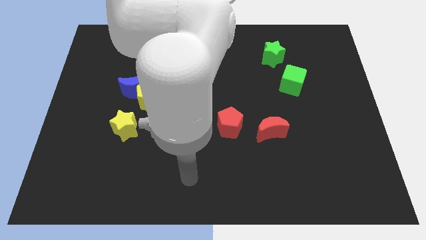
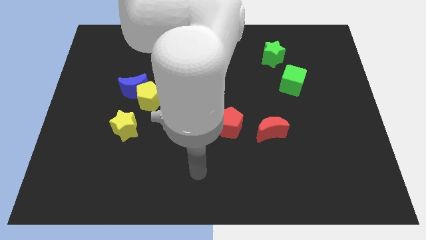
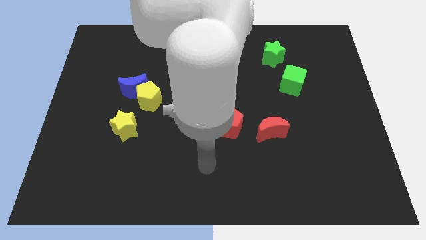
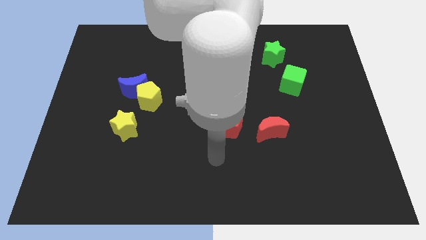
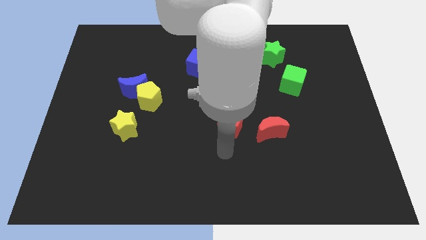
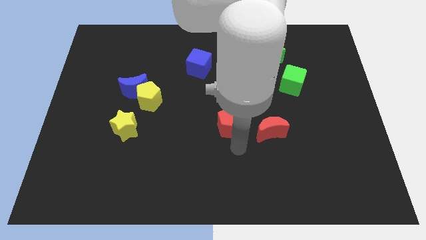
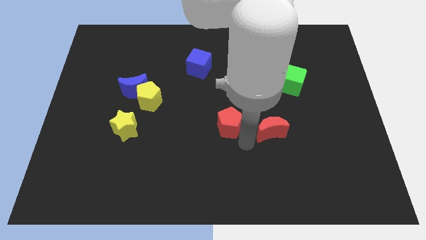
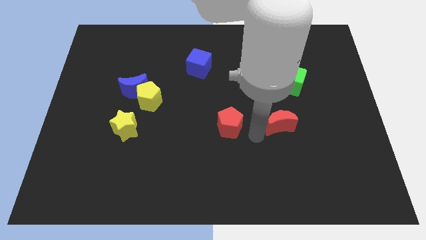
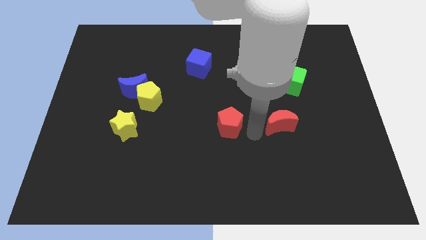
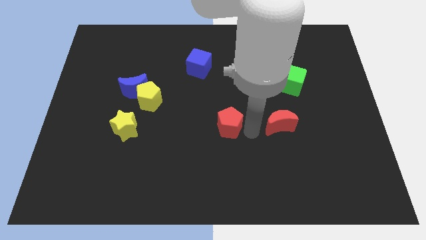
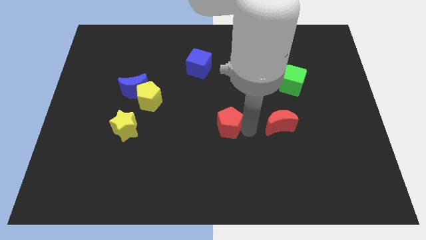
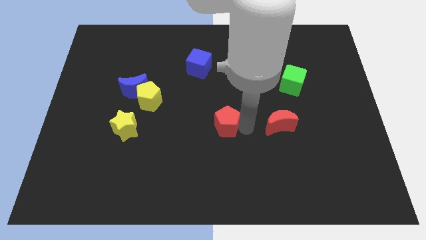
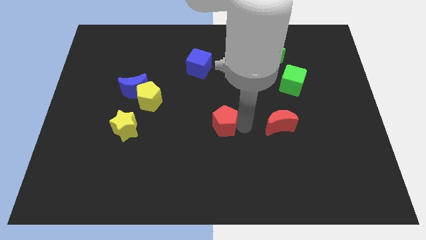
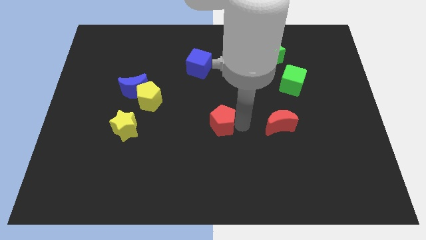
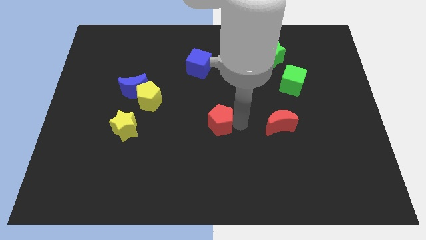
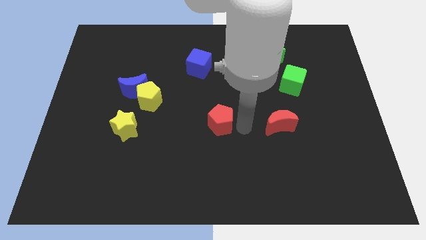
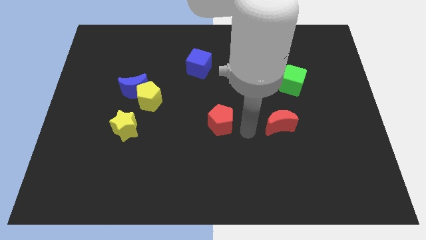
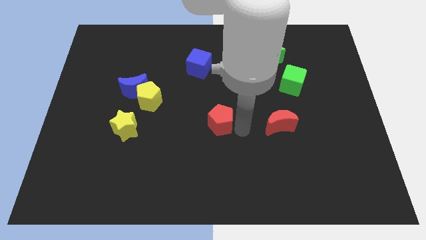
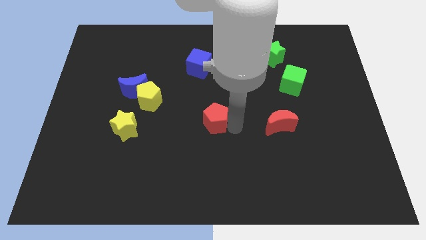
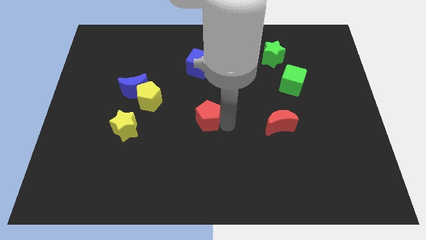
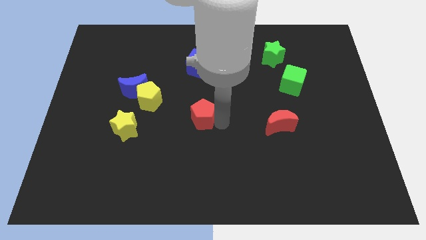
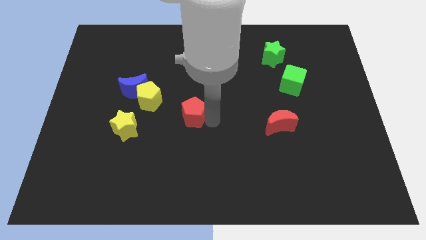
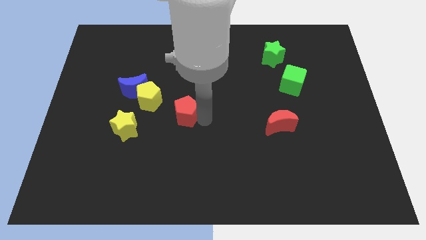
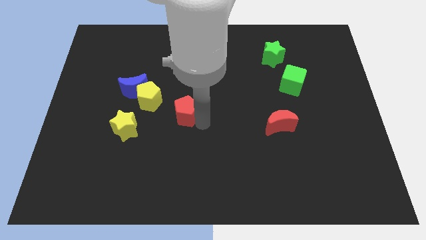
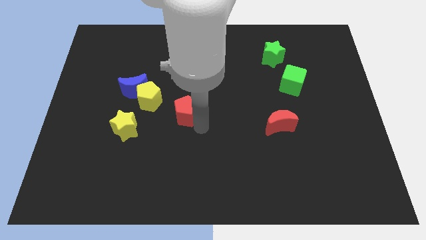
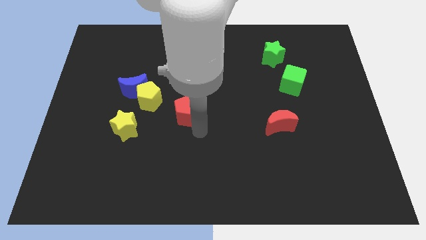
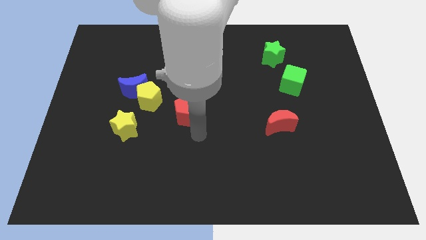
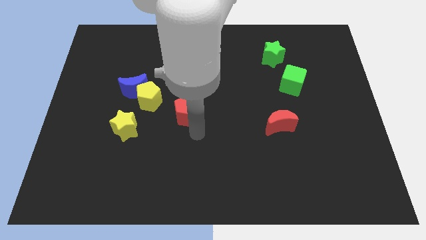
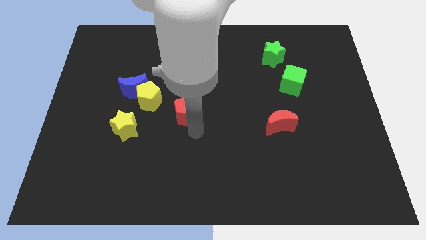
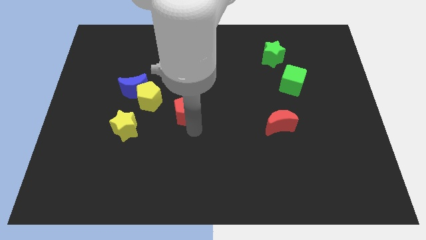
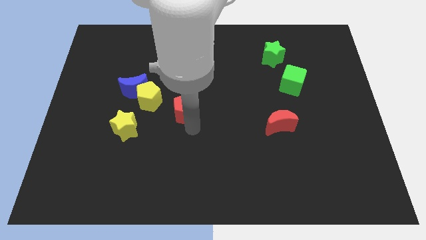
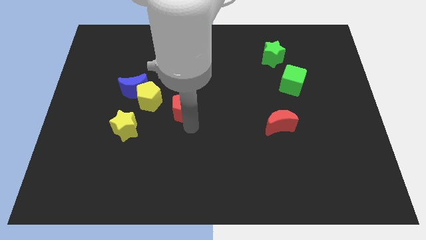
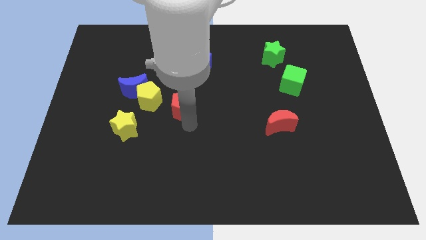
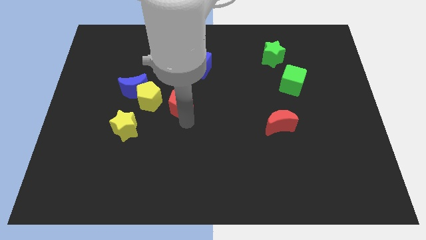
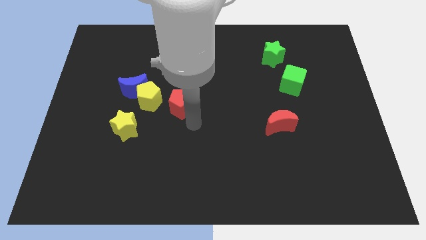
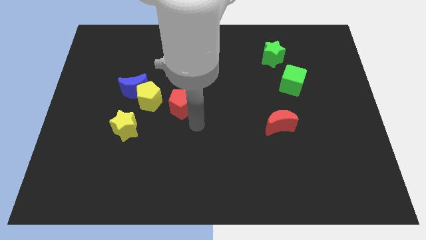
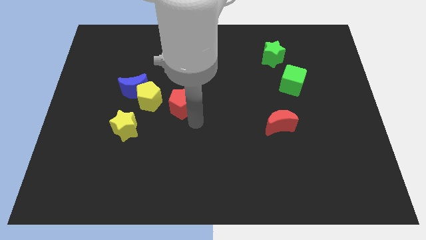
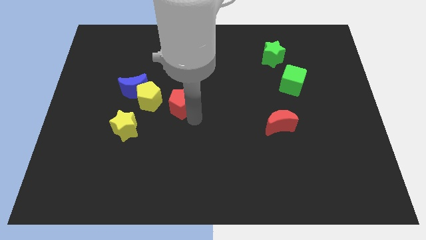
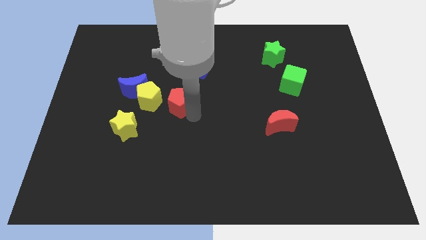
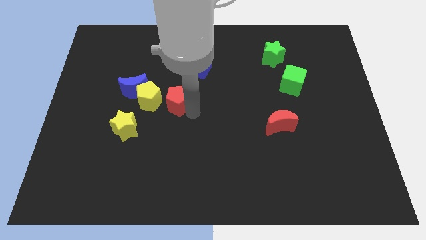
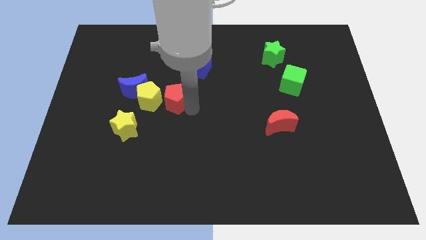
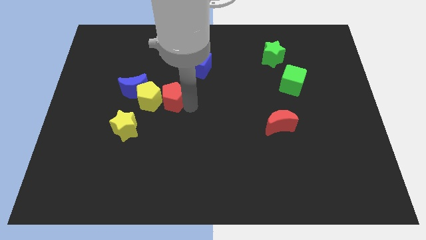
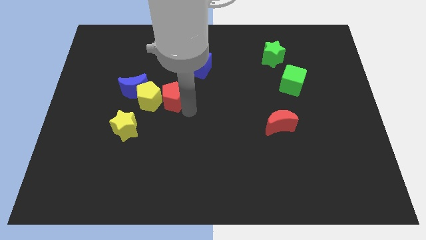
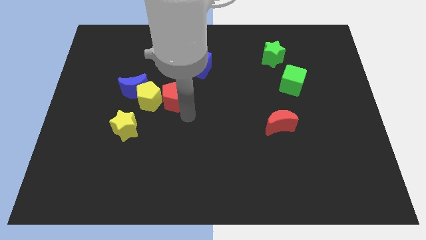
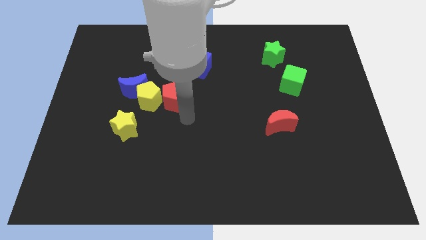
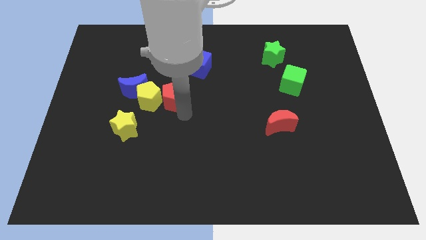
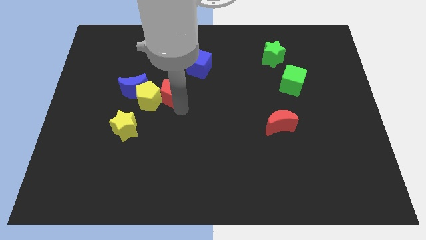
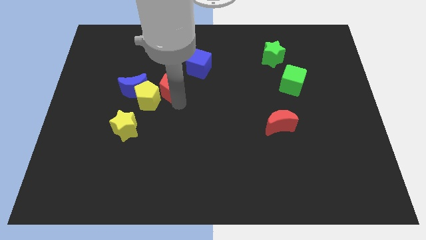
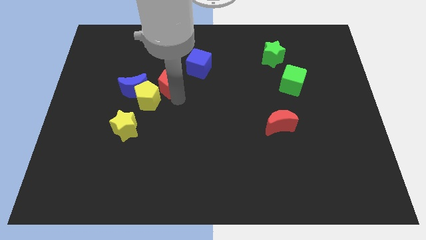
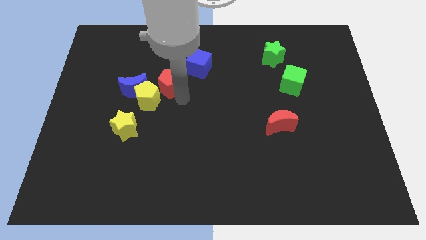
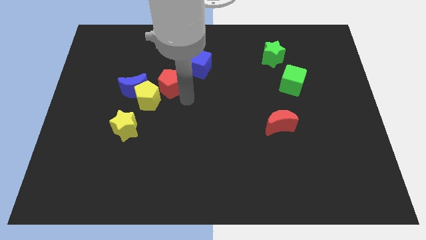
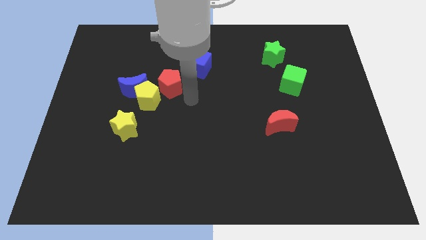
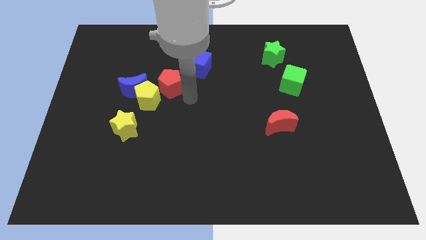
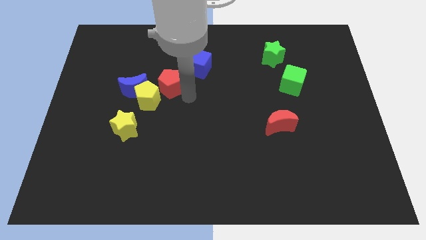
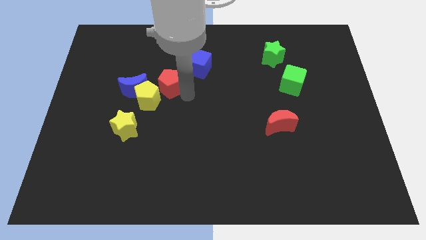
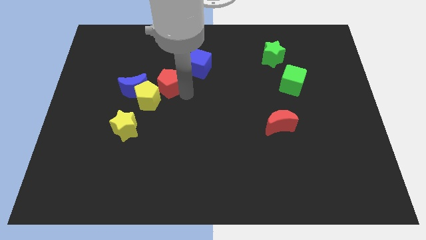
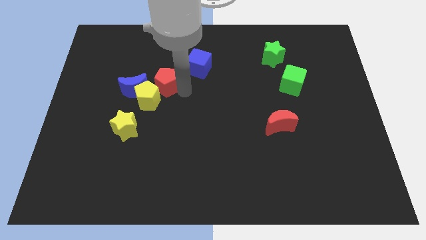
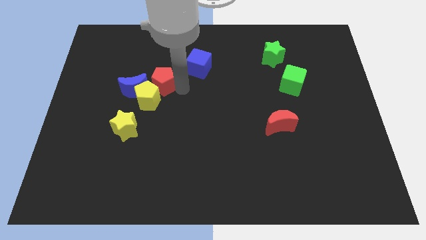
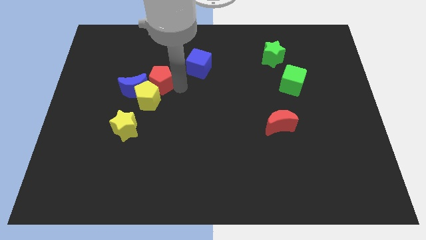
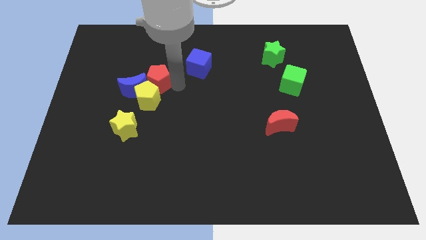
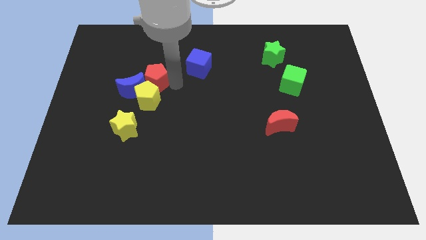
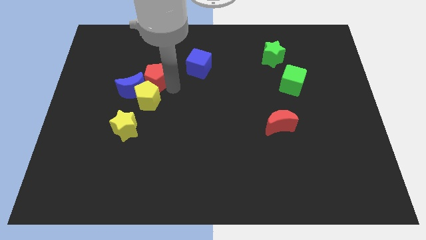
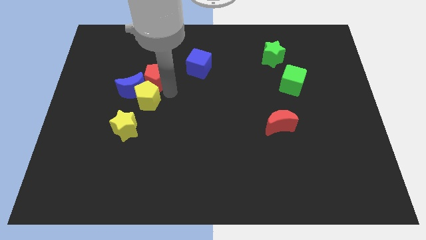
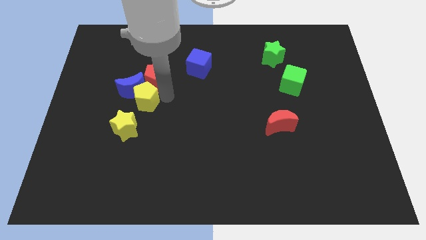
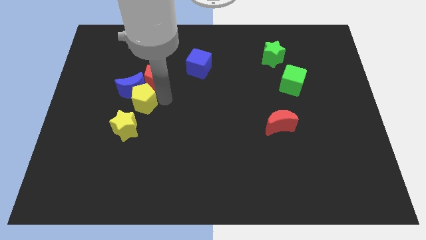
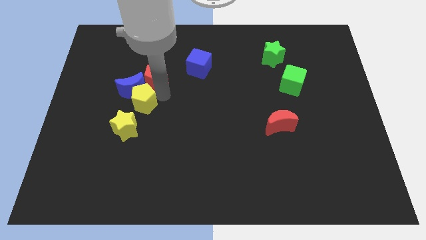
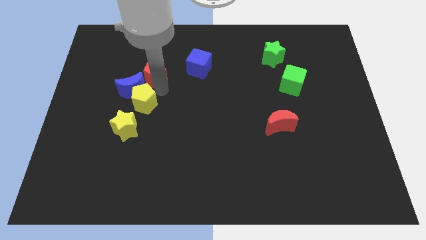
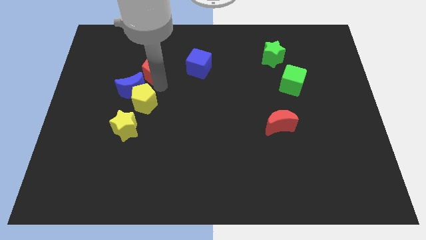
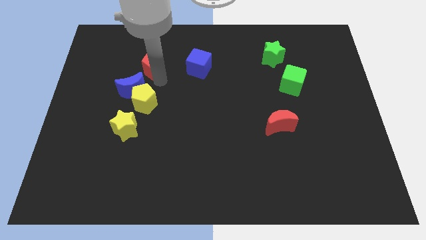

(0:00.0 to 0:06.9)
put the red pentagon to the top side of the blue moon

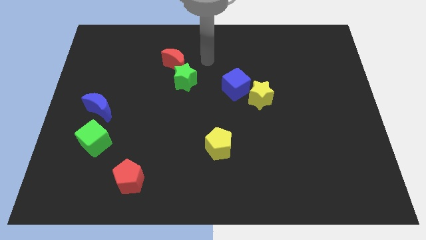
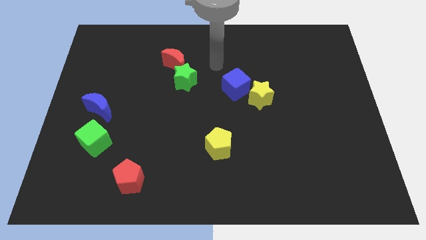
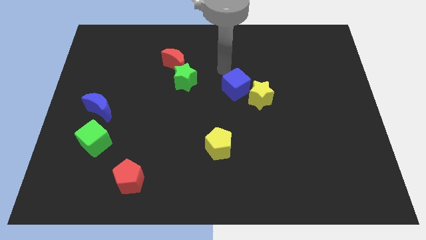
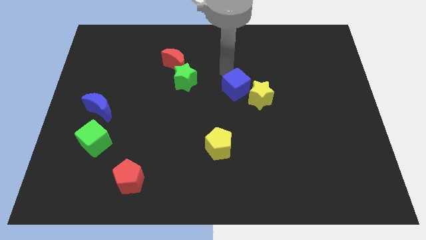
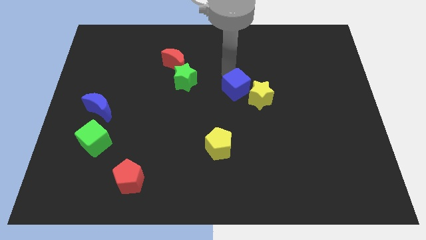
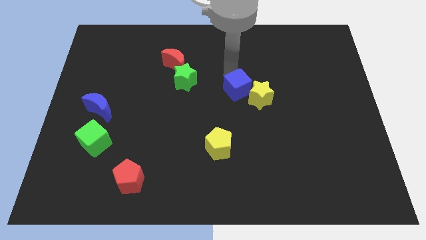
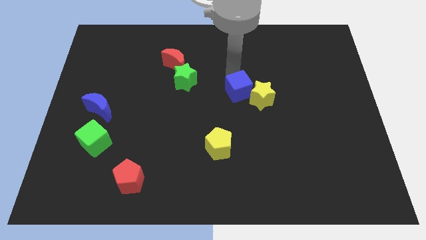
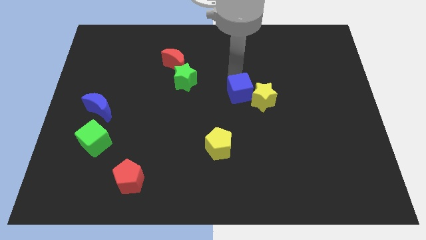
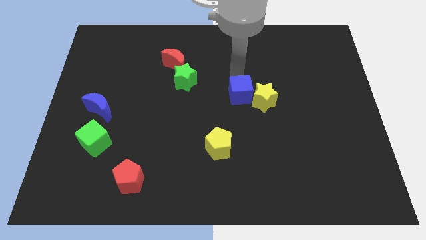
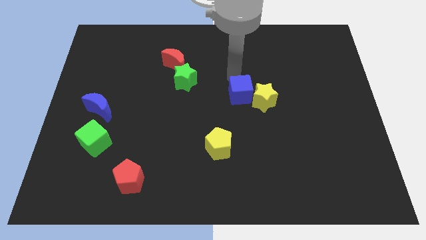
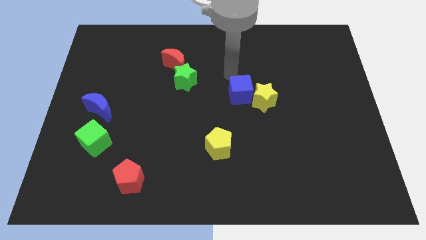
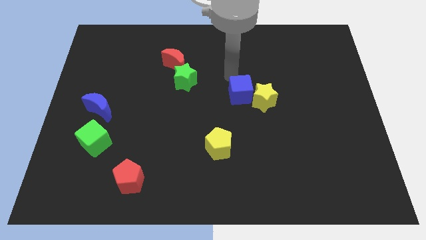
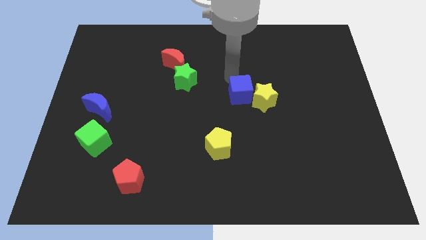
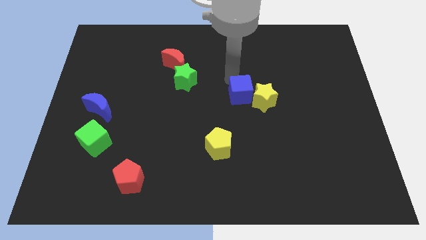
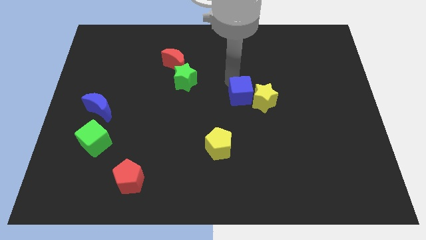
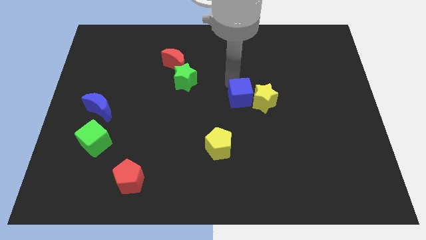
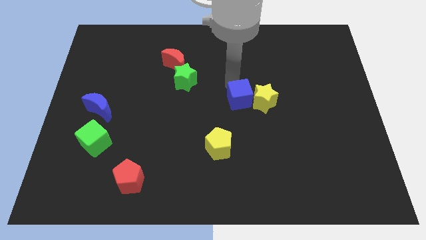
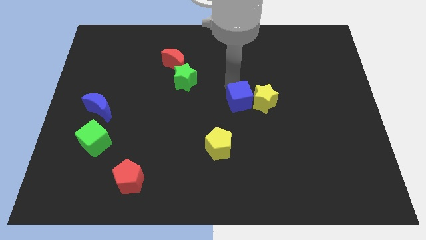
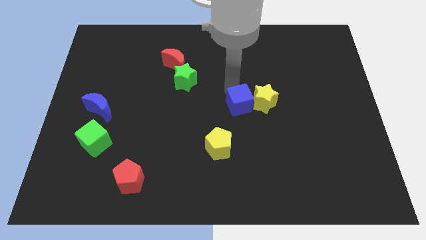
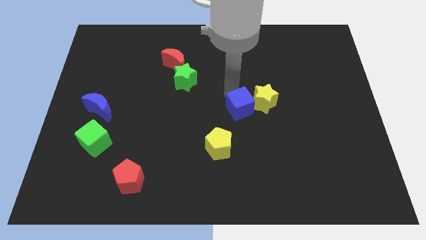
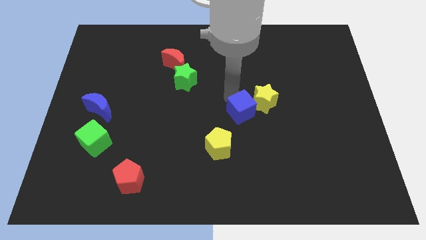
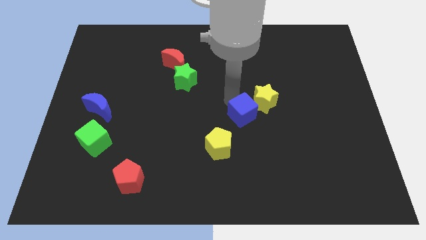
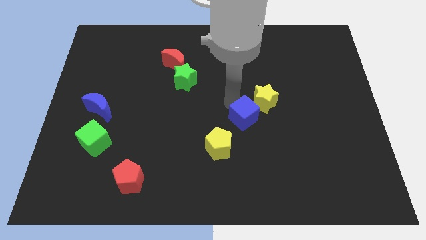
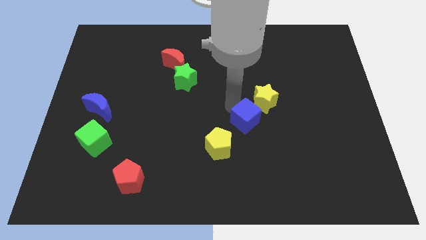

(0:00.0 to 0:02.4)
slide the blue cube to the bottom of the yellow star
